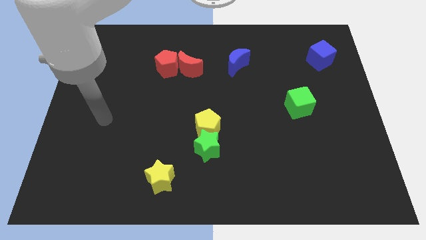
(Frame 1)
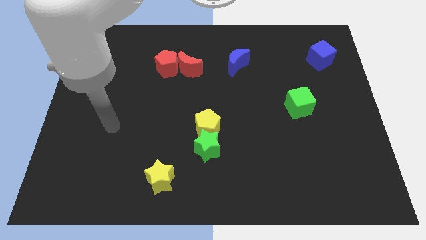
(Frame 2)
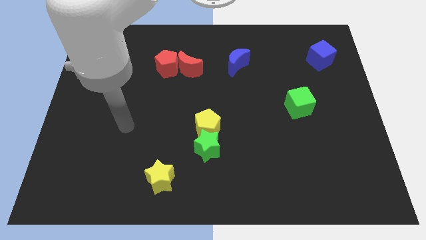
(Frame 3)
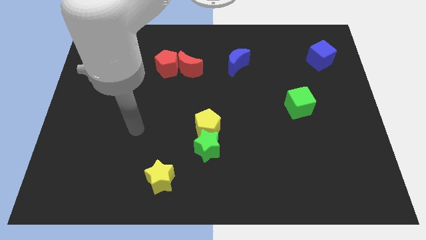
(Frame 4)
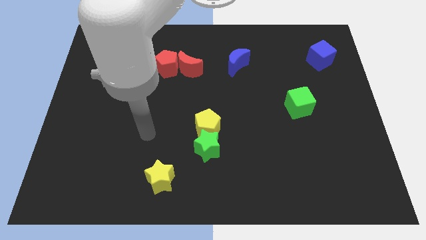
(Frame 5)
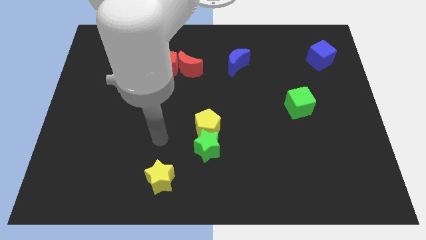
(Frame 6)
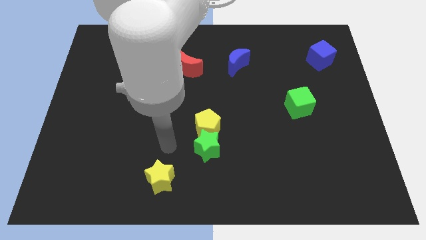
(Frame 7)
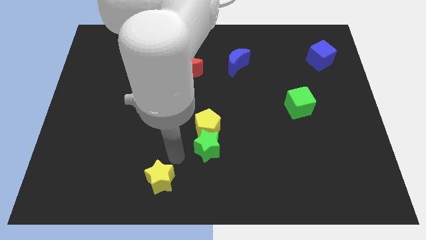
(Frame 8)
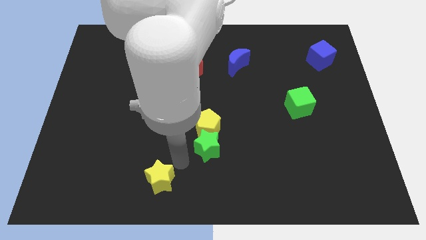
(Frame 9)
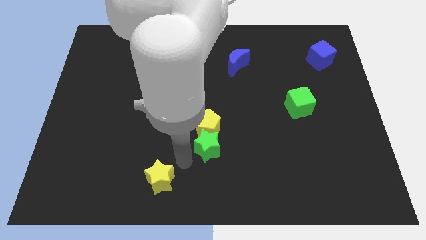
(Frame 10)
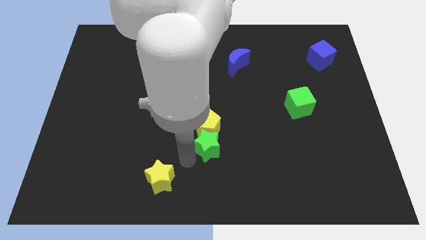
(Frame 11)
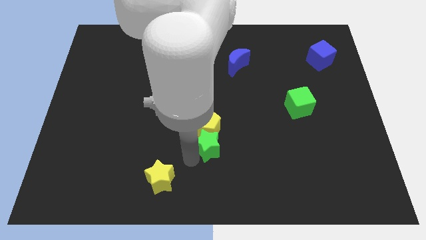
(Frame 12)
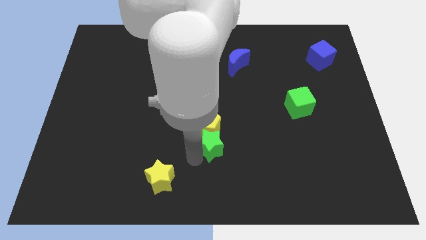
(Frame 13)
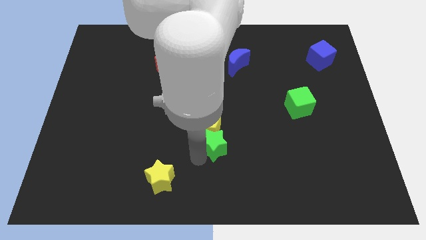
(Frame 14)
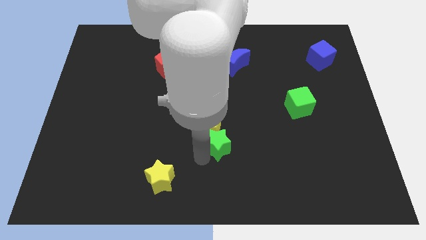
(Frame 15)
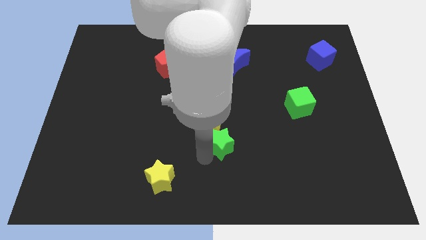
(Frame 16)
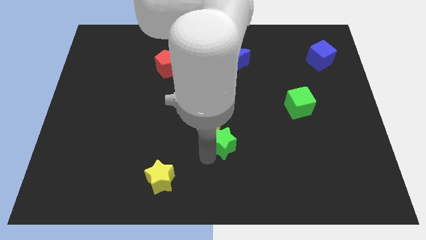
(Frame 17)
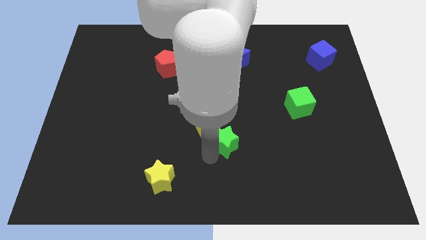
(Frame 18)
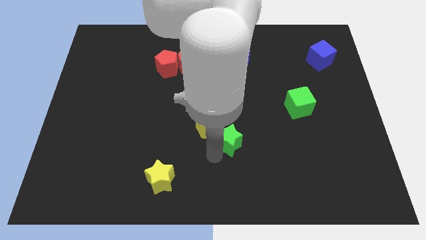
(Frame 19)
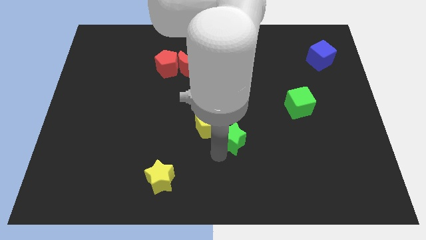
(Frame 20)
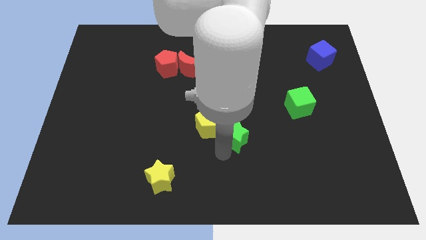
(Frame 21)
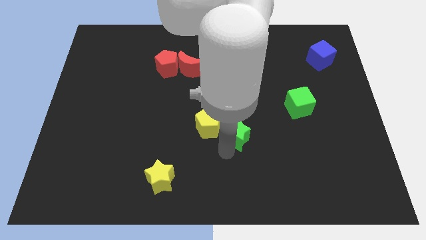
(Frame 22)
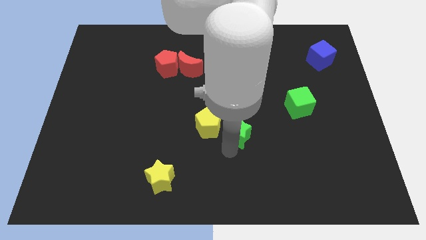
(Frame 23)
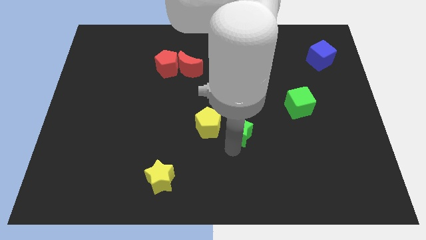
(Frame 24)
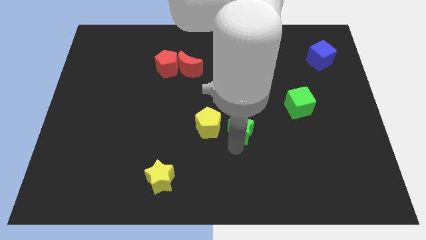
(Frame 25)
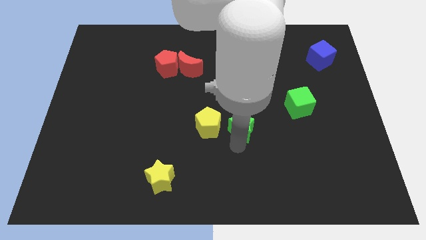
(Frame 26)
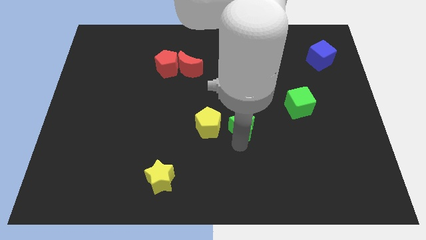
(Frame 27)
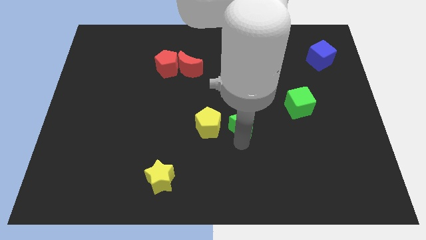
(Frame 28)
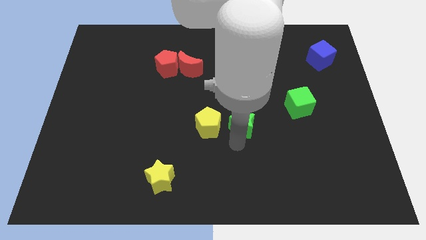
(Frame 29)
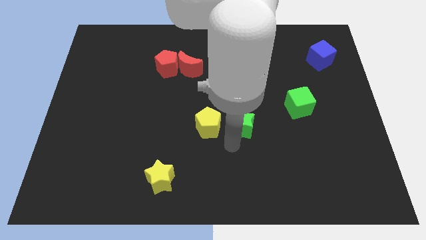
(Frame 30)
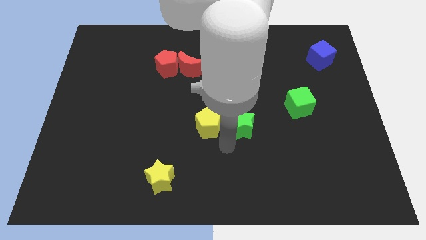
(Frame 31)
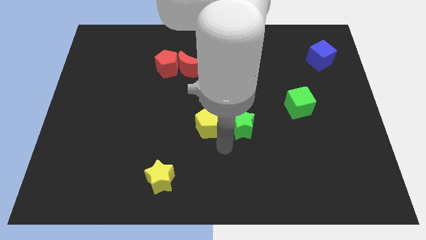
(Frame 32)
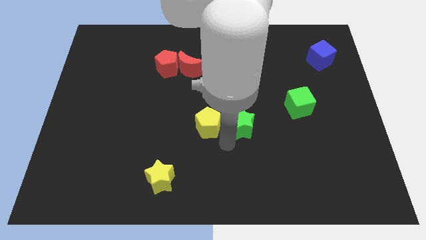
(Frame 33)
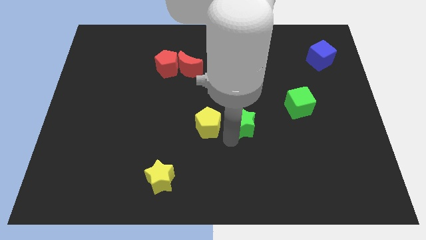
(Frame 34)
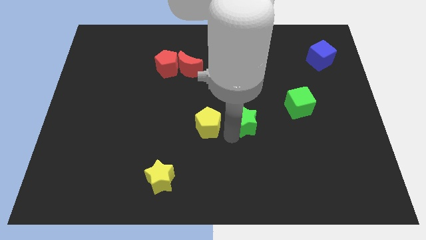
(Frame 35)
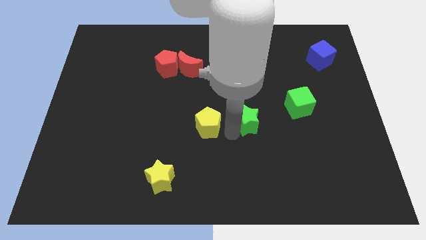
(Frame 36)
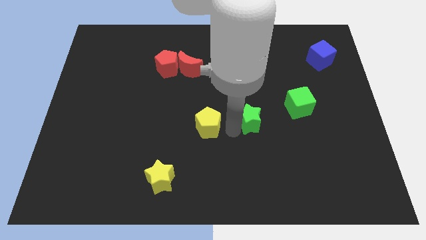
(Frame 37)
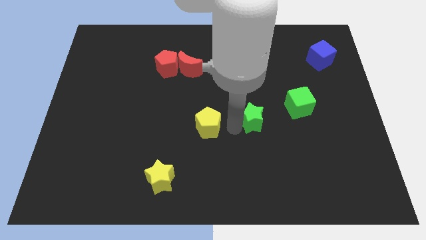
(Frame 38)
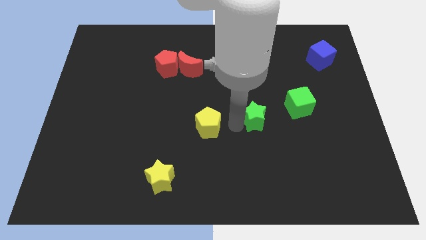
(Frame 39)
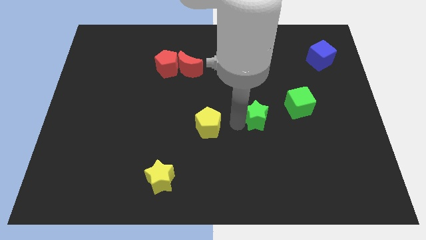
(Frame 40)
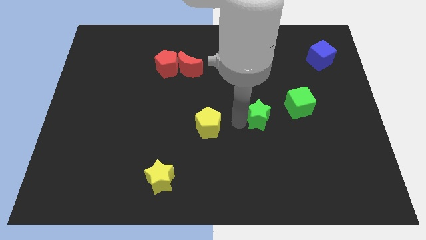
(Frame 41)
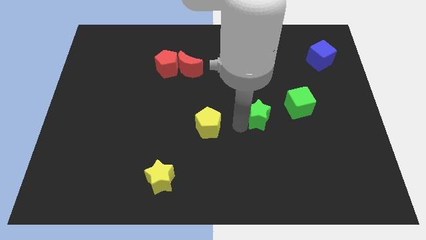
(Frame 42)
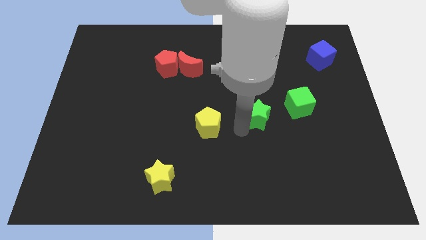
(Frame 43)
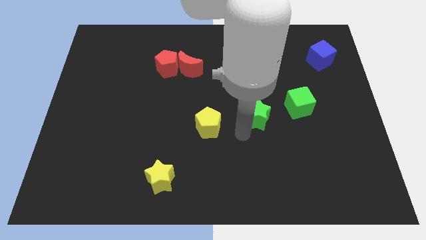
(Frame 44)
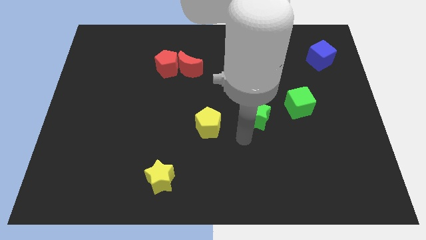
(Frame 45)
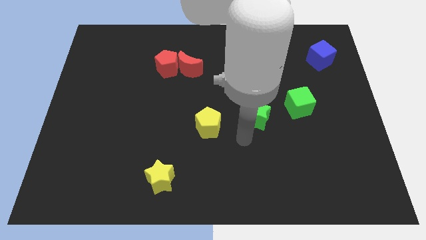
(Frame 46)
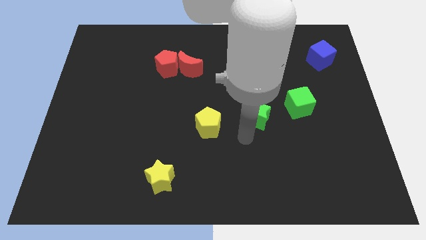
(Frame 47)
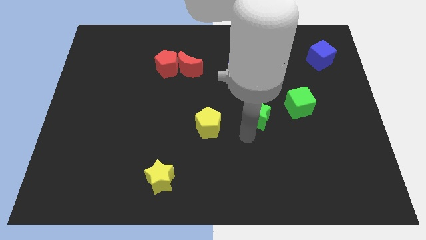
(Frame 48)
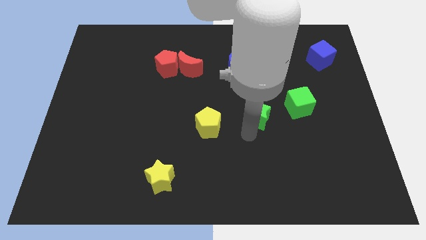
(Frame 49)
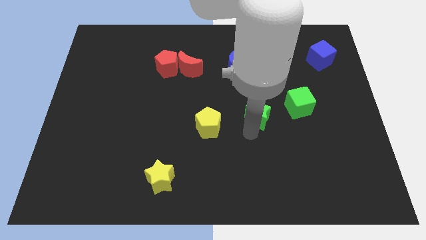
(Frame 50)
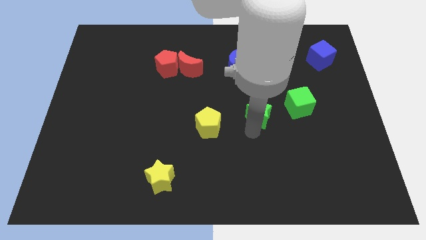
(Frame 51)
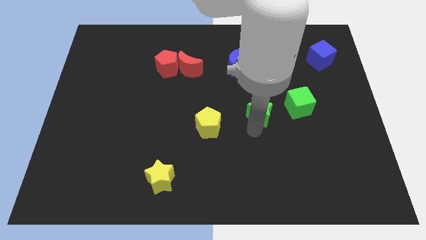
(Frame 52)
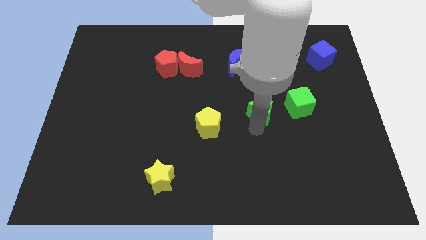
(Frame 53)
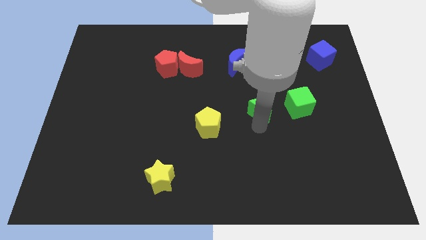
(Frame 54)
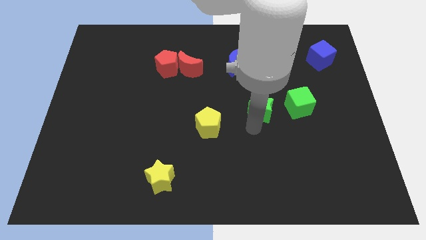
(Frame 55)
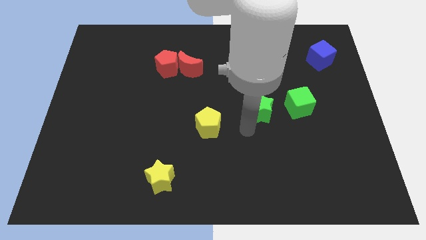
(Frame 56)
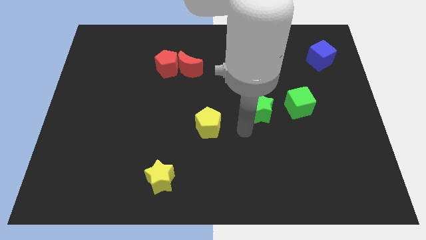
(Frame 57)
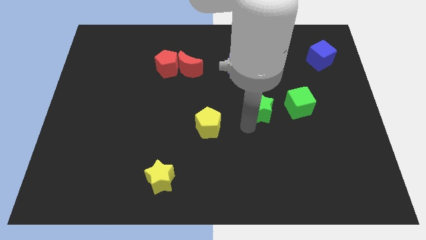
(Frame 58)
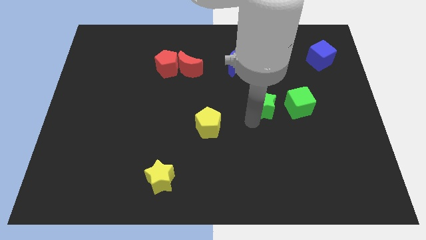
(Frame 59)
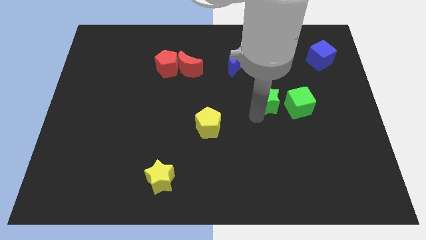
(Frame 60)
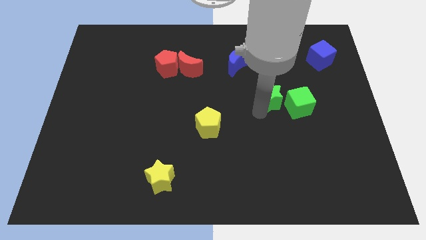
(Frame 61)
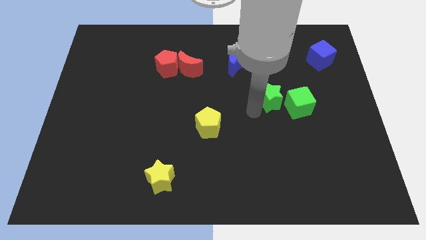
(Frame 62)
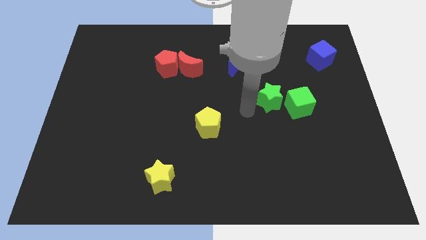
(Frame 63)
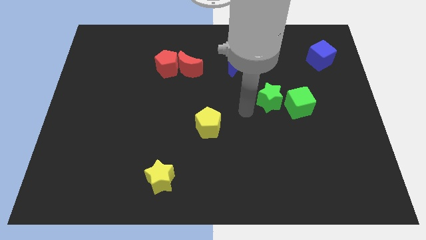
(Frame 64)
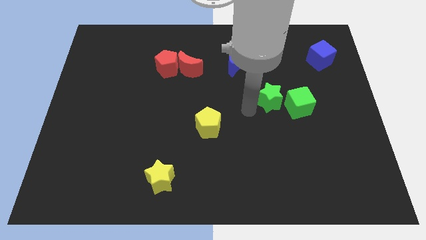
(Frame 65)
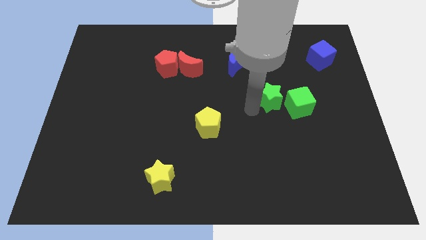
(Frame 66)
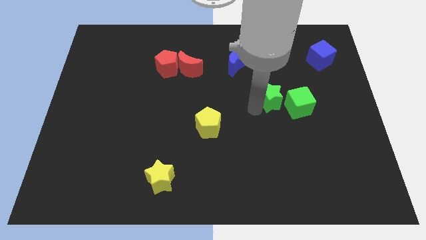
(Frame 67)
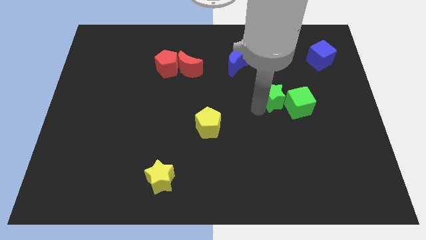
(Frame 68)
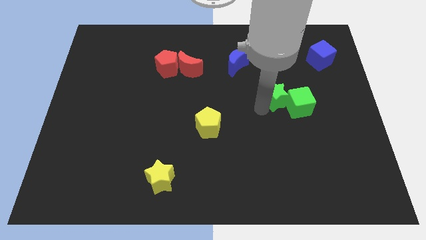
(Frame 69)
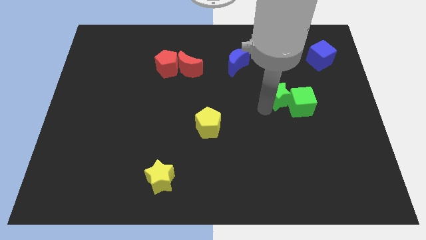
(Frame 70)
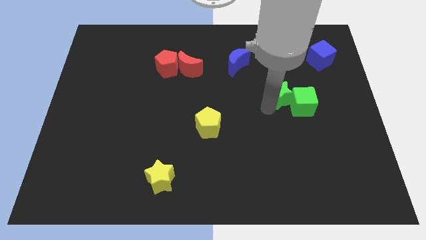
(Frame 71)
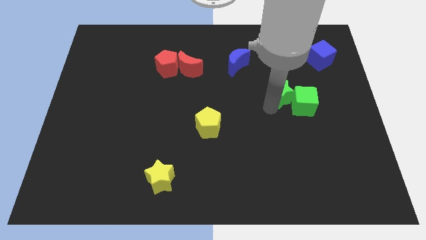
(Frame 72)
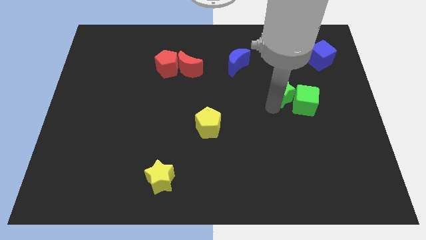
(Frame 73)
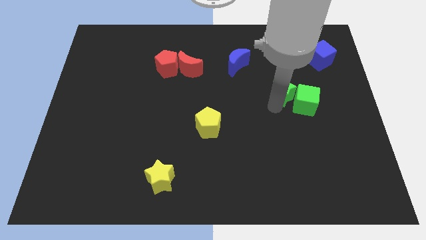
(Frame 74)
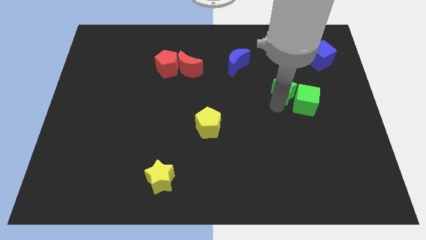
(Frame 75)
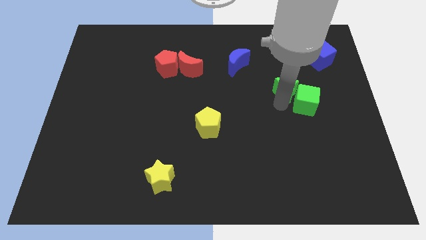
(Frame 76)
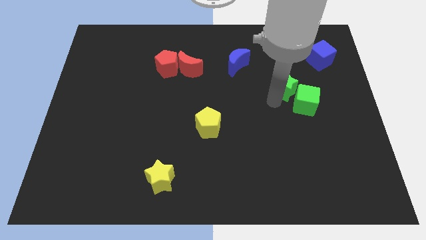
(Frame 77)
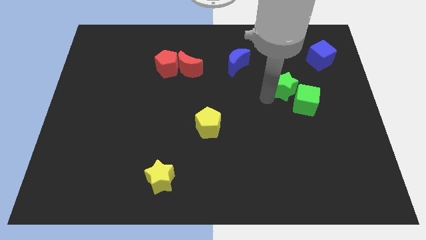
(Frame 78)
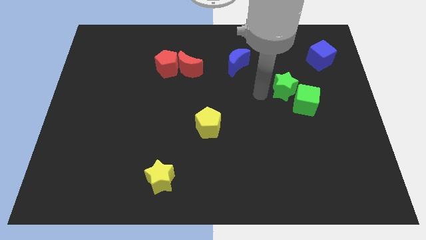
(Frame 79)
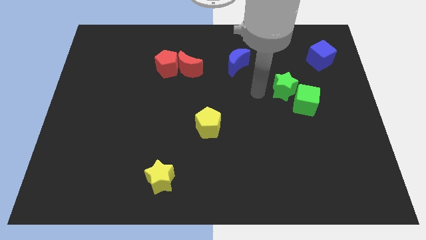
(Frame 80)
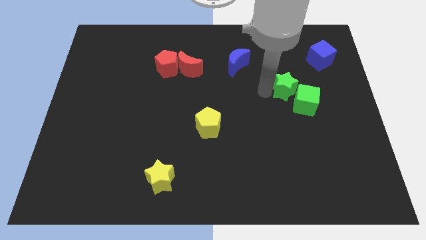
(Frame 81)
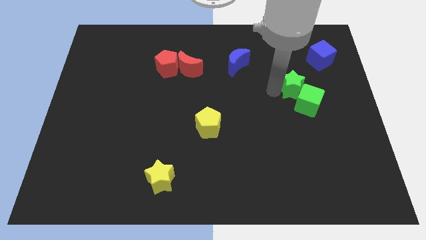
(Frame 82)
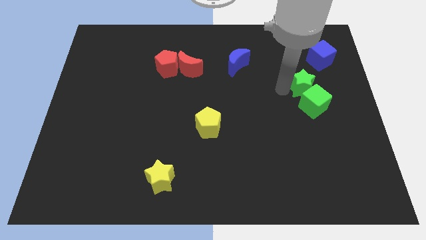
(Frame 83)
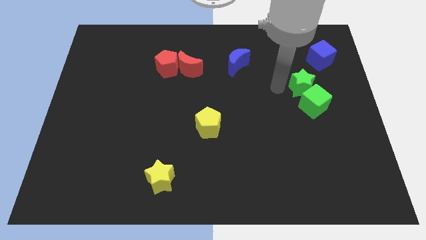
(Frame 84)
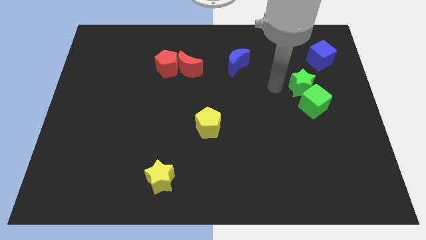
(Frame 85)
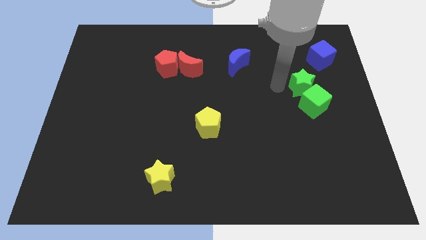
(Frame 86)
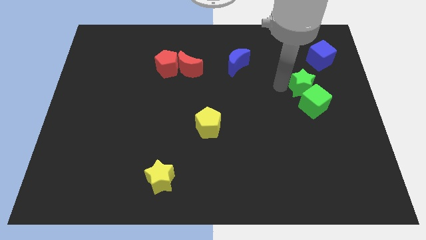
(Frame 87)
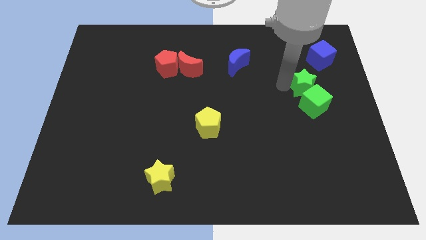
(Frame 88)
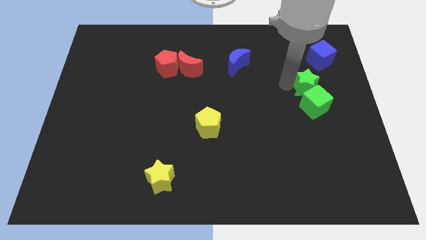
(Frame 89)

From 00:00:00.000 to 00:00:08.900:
push the green star to the top right side of the green cube
